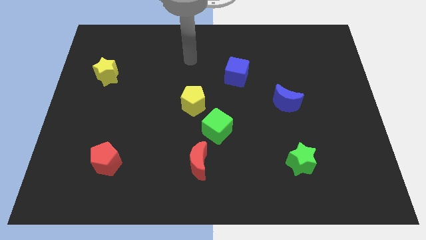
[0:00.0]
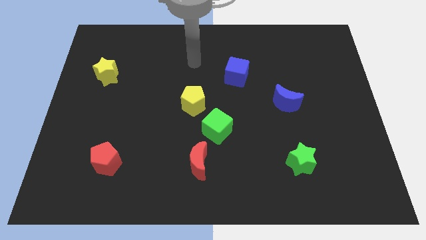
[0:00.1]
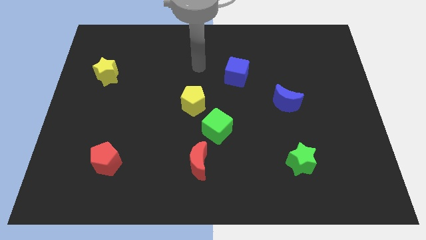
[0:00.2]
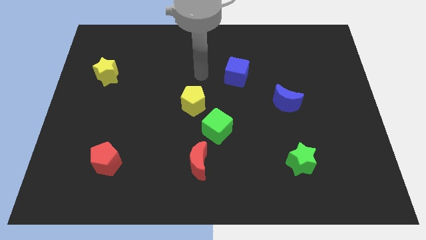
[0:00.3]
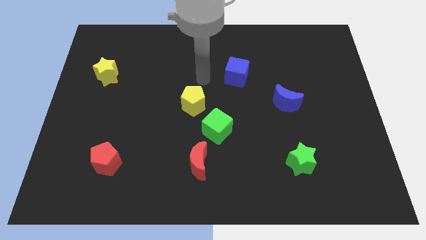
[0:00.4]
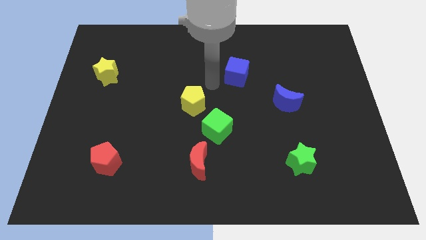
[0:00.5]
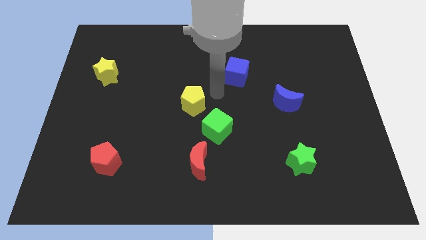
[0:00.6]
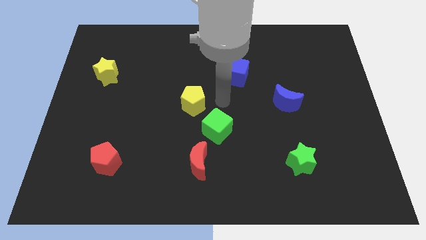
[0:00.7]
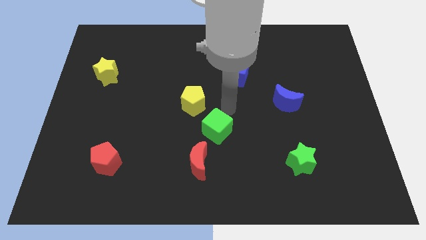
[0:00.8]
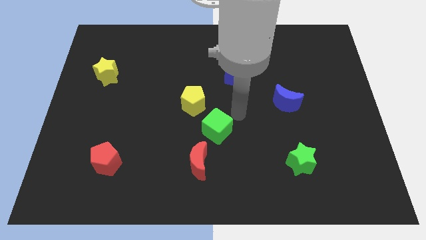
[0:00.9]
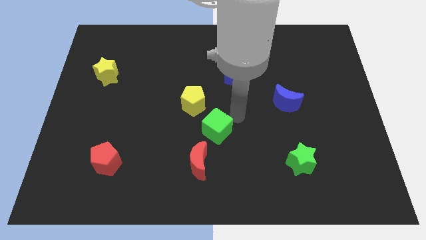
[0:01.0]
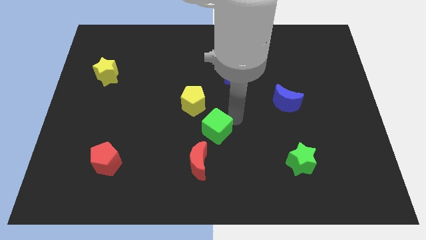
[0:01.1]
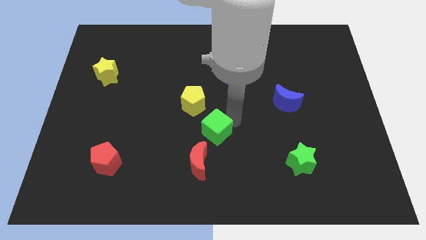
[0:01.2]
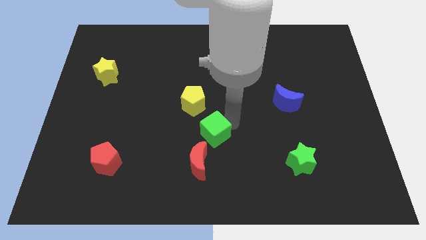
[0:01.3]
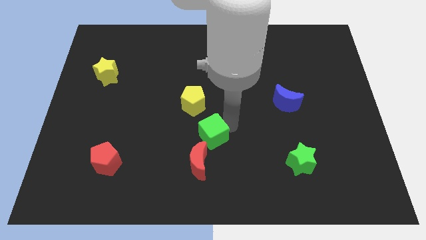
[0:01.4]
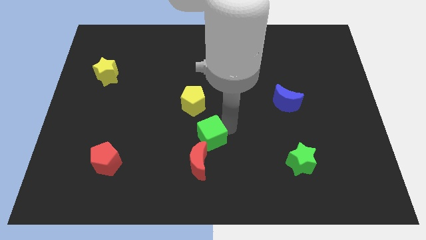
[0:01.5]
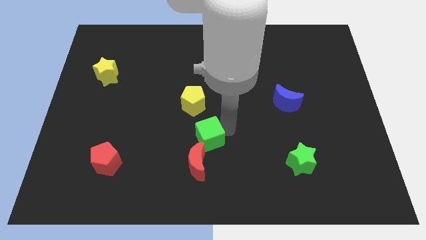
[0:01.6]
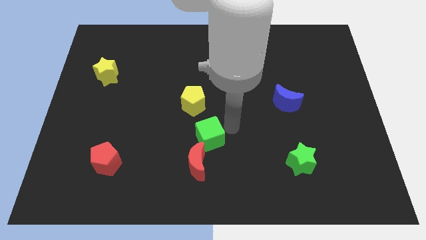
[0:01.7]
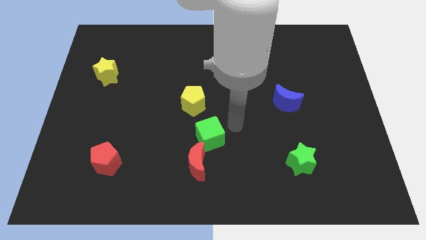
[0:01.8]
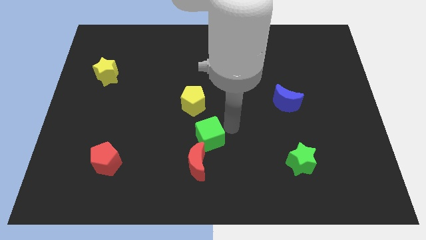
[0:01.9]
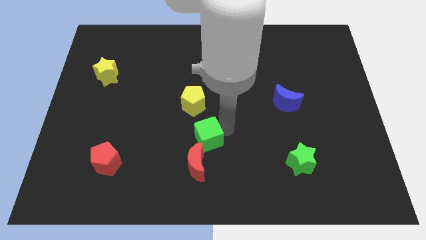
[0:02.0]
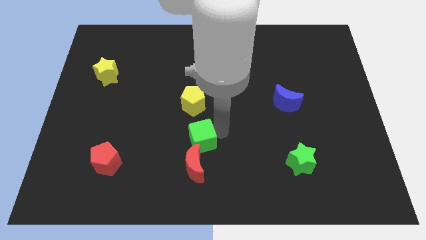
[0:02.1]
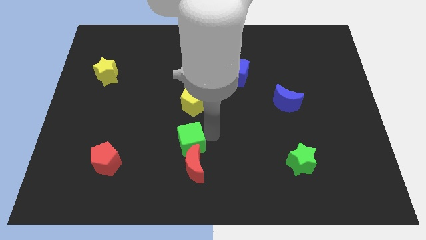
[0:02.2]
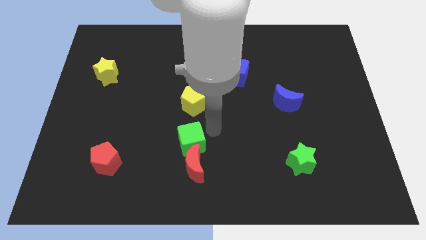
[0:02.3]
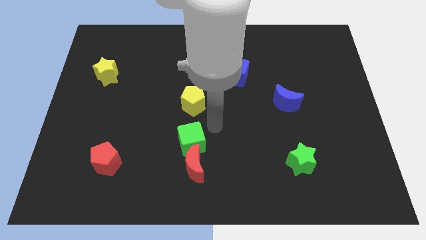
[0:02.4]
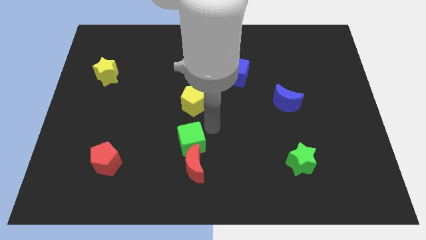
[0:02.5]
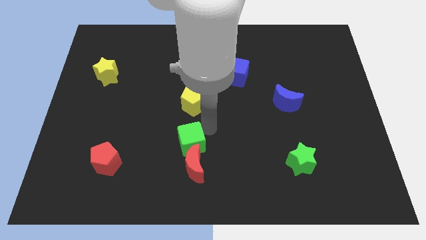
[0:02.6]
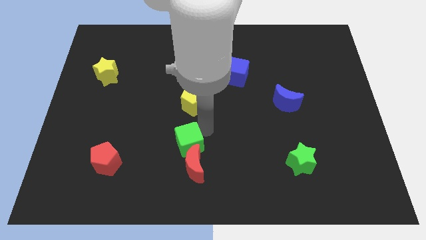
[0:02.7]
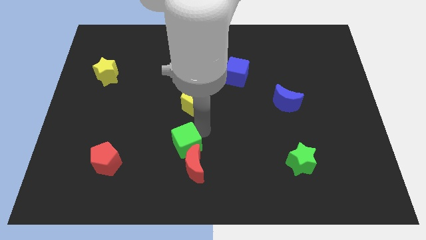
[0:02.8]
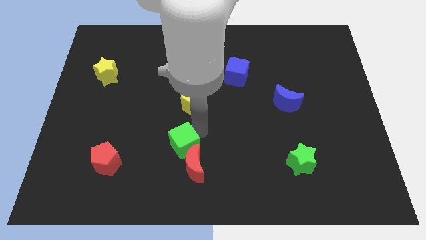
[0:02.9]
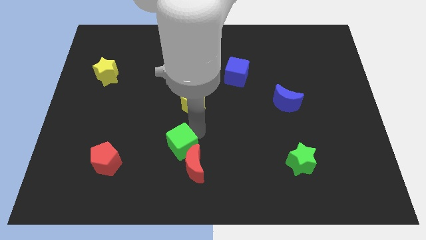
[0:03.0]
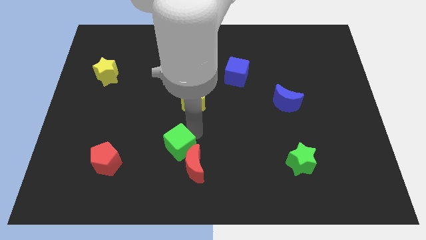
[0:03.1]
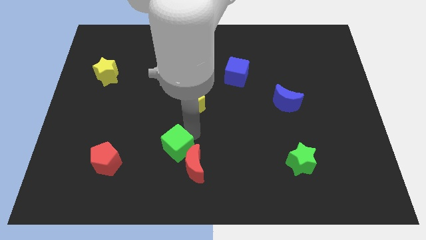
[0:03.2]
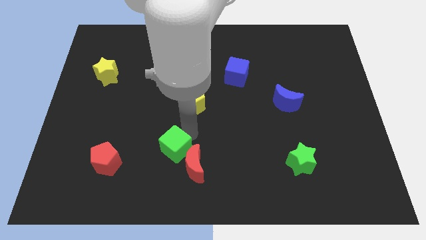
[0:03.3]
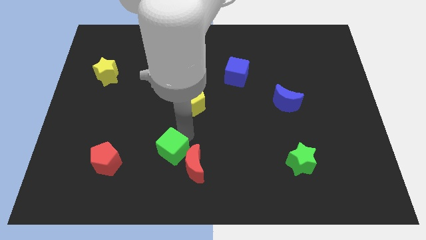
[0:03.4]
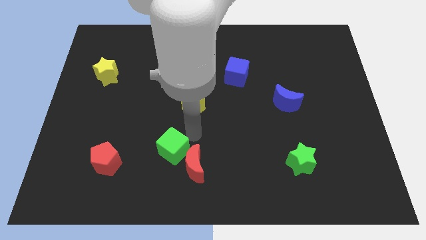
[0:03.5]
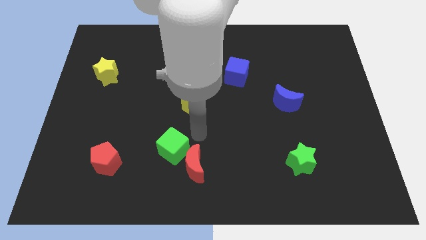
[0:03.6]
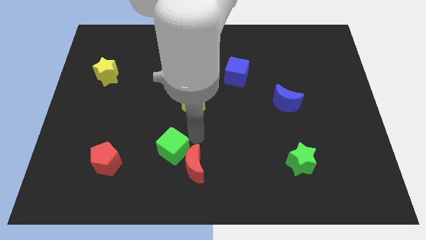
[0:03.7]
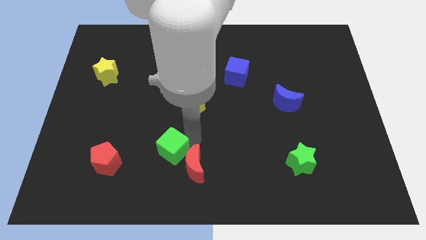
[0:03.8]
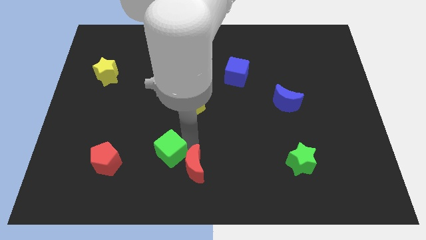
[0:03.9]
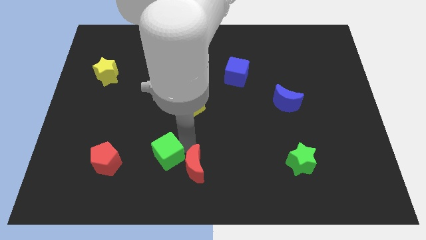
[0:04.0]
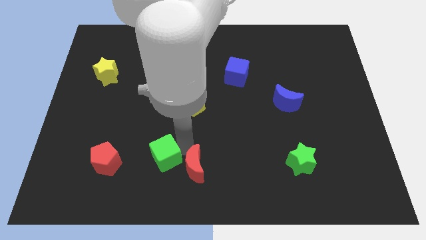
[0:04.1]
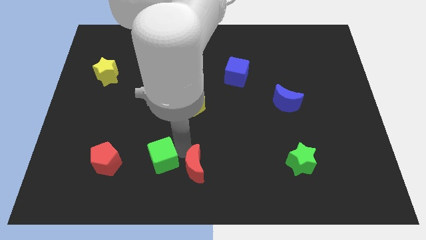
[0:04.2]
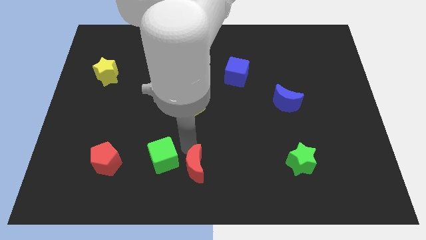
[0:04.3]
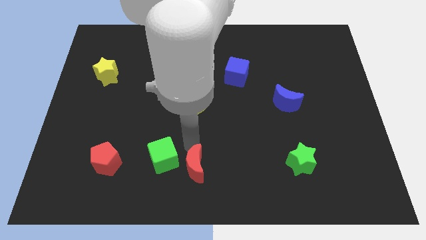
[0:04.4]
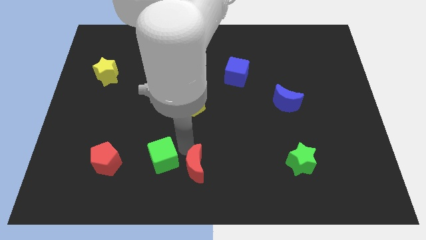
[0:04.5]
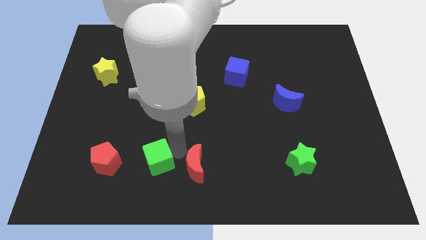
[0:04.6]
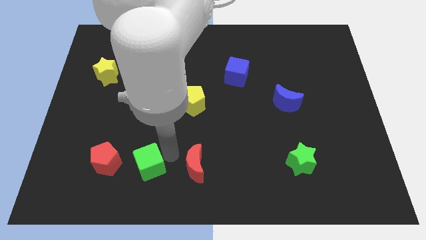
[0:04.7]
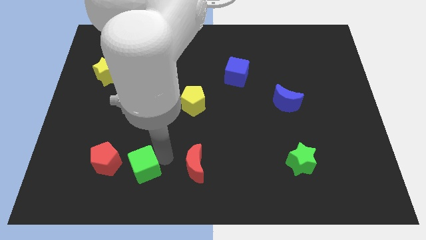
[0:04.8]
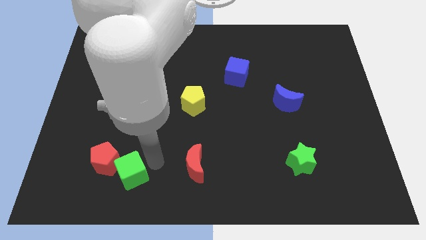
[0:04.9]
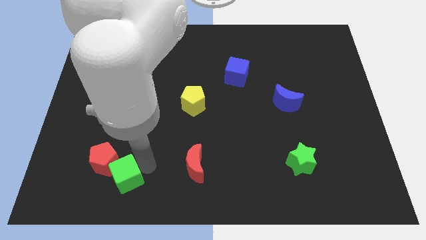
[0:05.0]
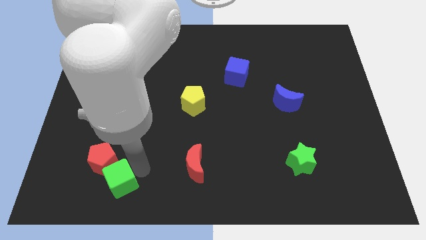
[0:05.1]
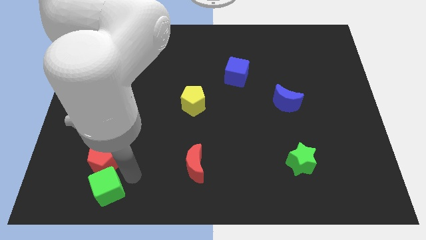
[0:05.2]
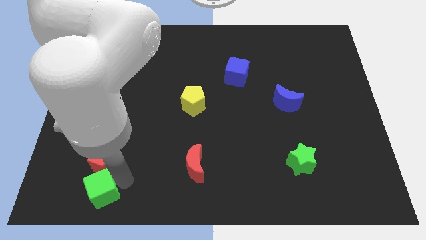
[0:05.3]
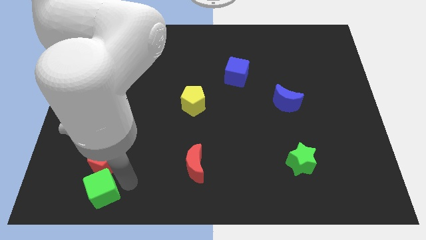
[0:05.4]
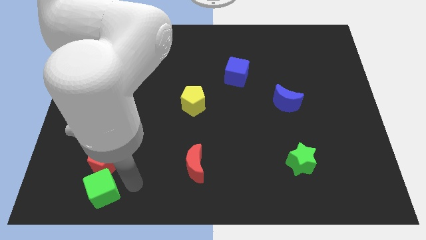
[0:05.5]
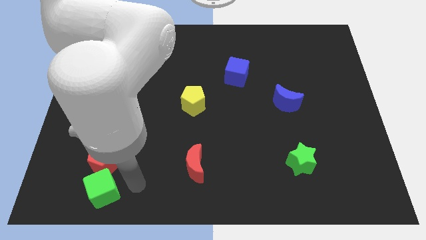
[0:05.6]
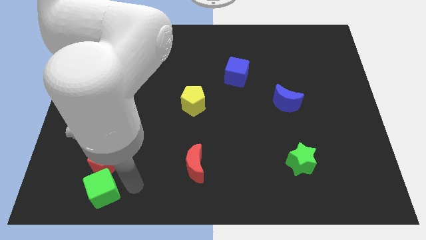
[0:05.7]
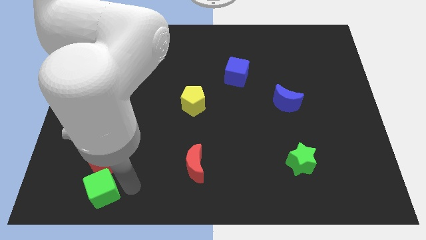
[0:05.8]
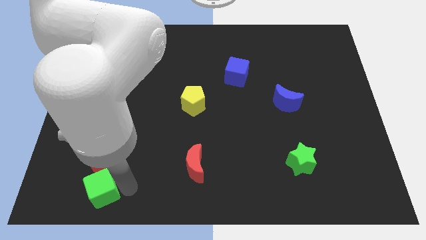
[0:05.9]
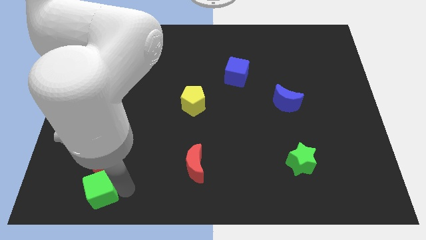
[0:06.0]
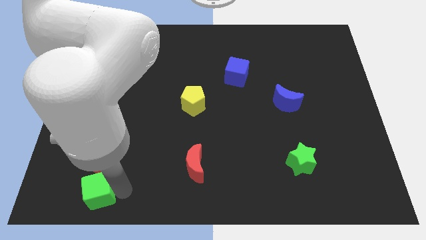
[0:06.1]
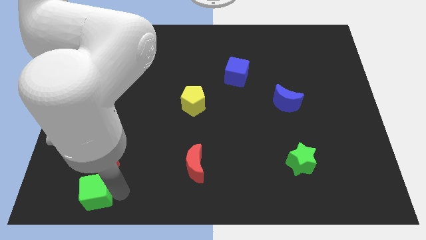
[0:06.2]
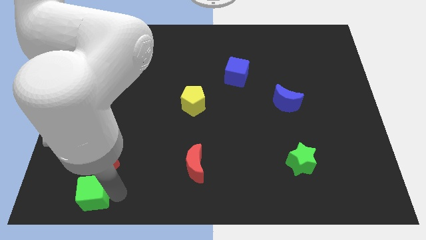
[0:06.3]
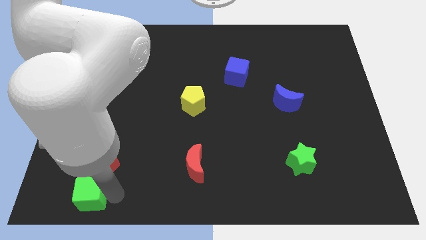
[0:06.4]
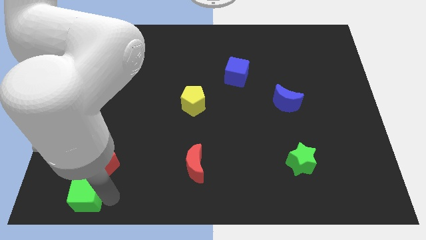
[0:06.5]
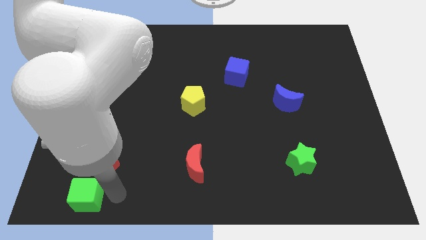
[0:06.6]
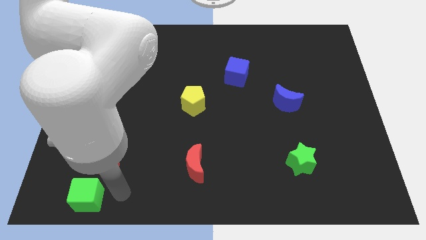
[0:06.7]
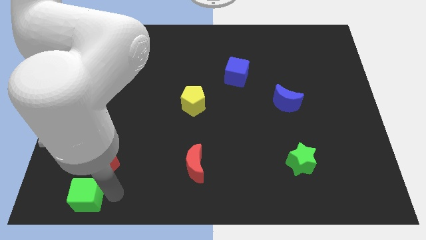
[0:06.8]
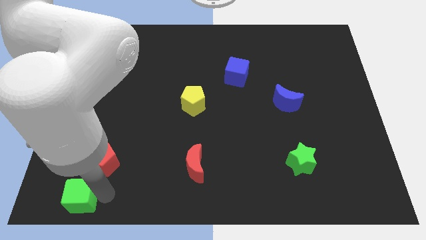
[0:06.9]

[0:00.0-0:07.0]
push the green cube to the bottom left

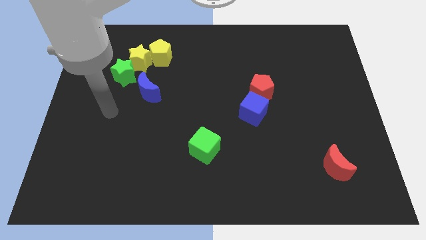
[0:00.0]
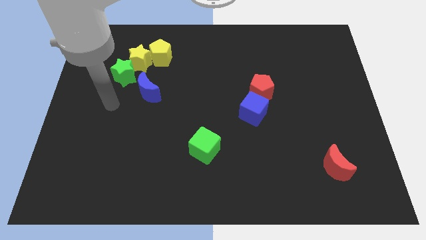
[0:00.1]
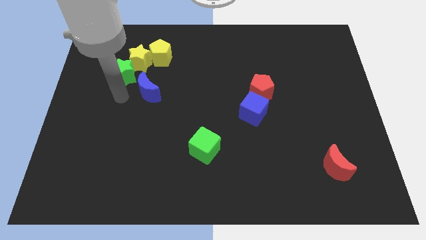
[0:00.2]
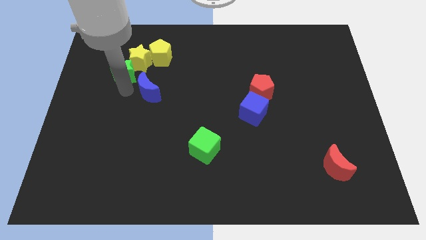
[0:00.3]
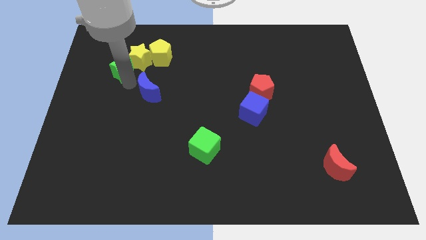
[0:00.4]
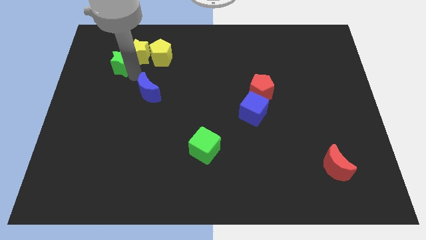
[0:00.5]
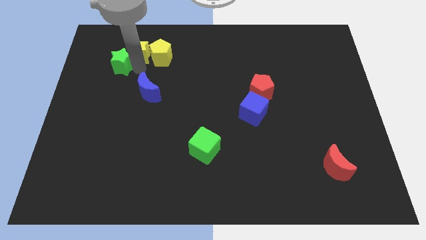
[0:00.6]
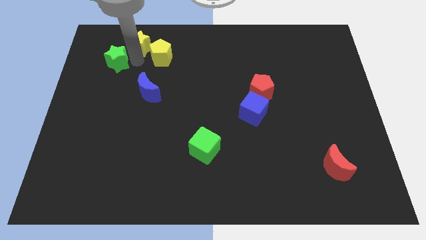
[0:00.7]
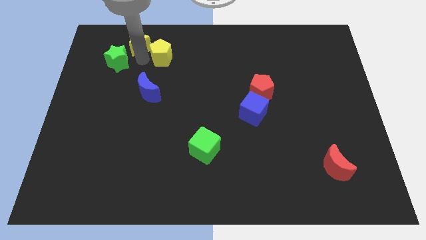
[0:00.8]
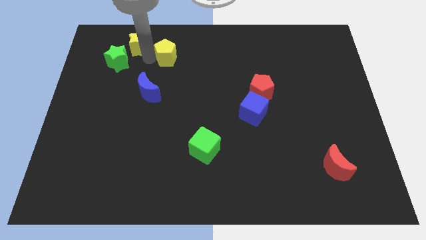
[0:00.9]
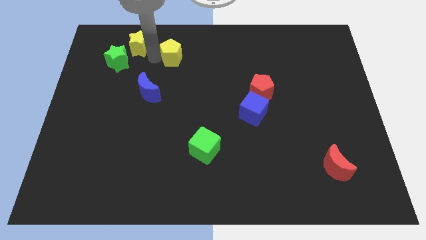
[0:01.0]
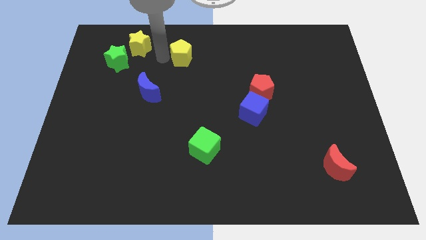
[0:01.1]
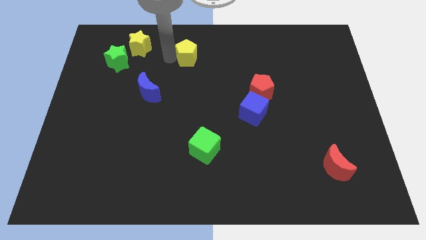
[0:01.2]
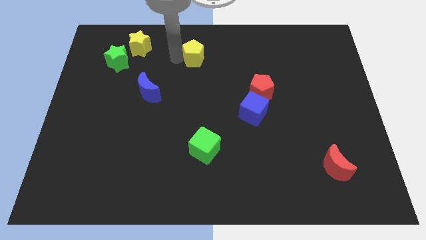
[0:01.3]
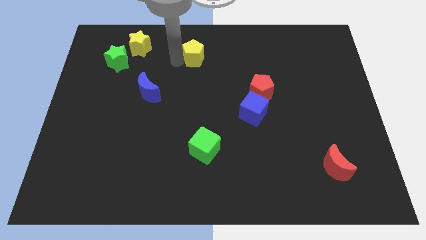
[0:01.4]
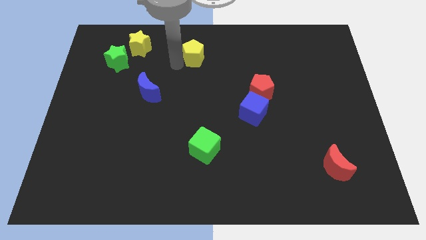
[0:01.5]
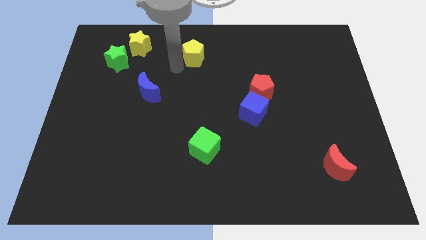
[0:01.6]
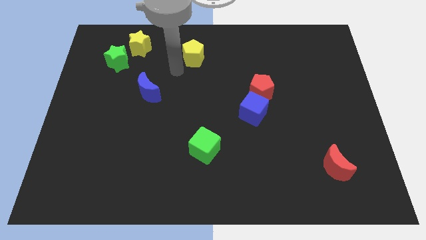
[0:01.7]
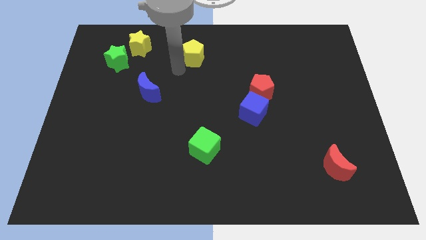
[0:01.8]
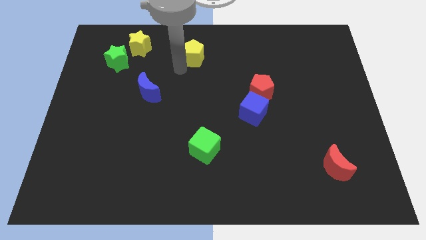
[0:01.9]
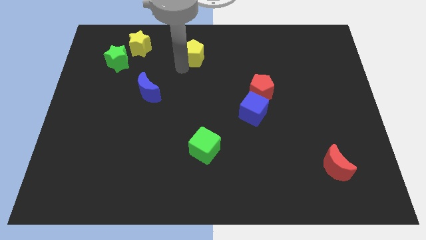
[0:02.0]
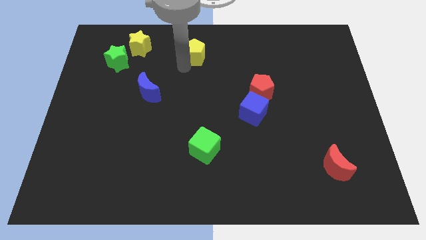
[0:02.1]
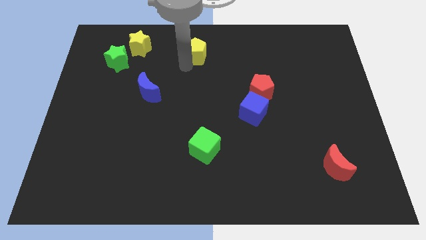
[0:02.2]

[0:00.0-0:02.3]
slide the yellow pentagon to the top
